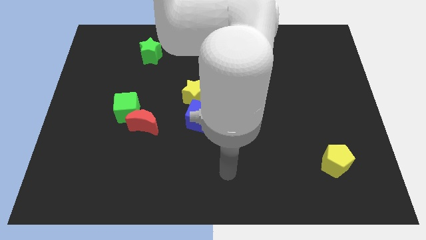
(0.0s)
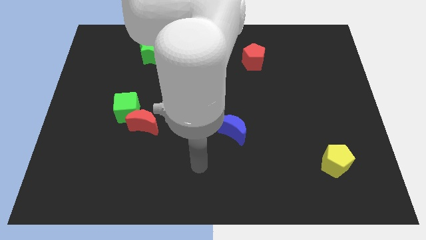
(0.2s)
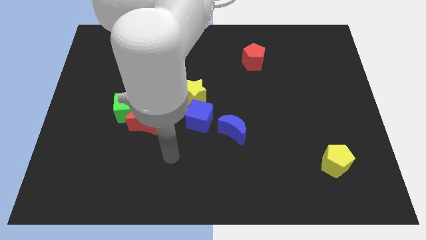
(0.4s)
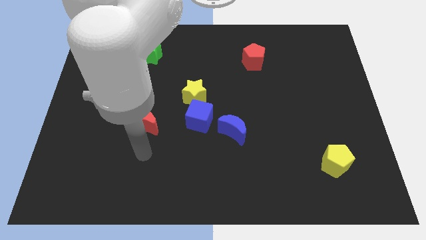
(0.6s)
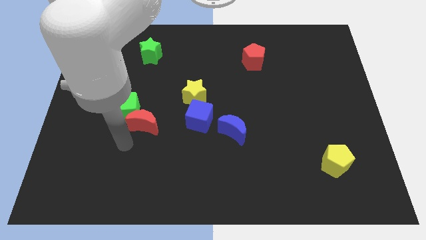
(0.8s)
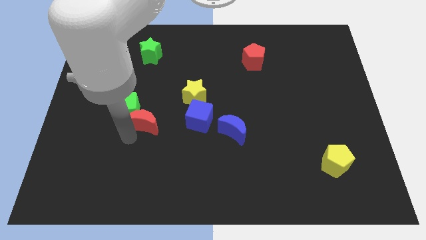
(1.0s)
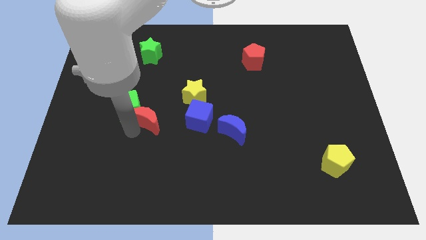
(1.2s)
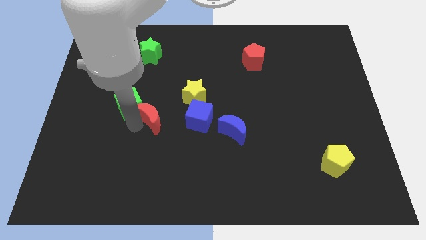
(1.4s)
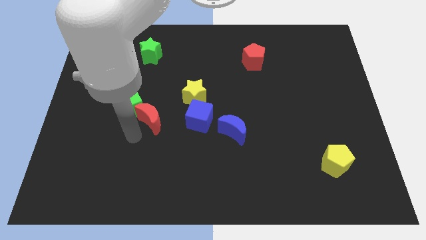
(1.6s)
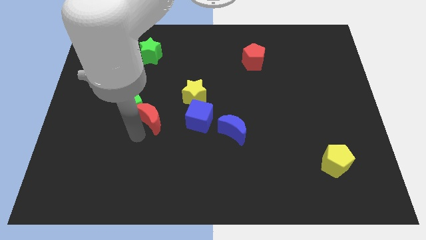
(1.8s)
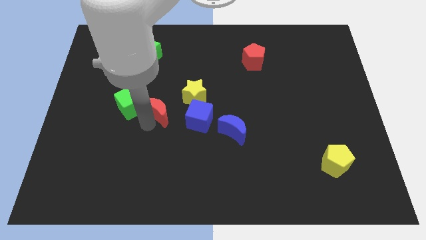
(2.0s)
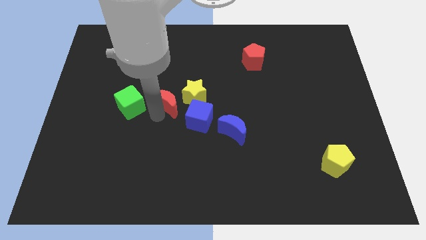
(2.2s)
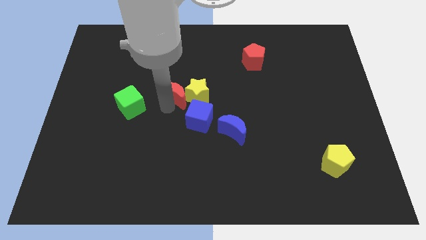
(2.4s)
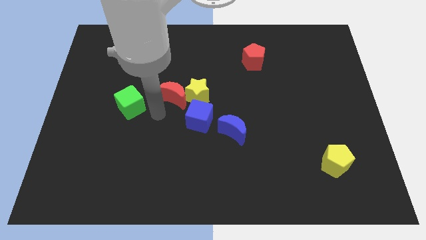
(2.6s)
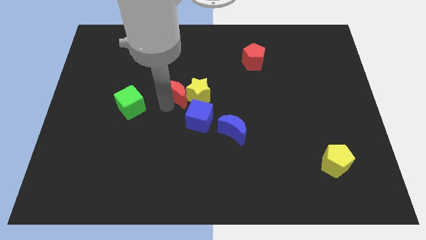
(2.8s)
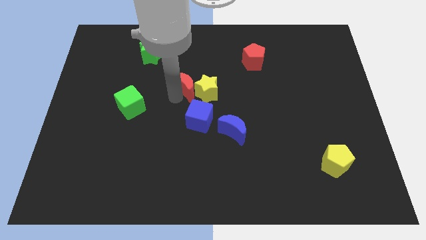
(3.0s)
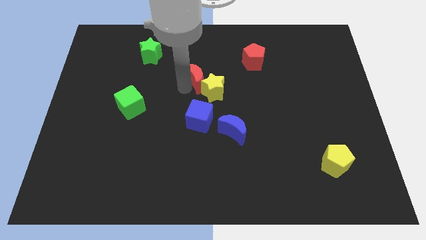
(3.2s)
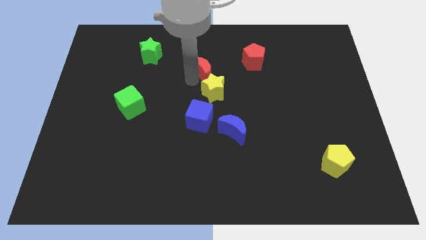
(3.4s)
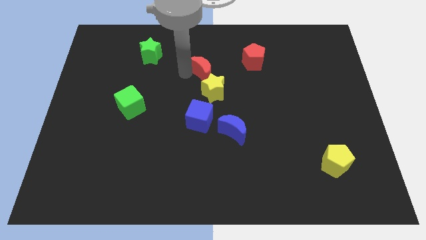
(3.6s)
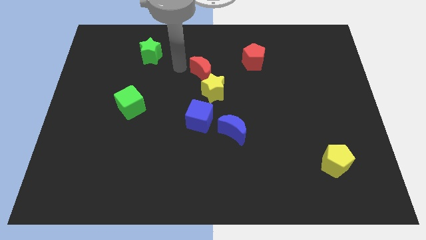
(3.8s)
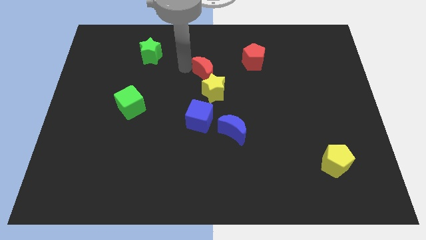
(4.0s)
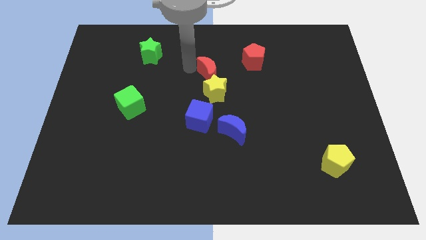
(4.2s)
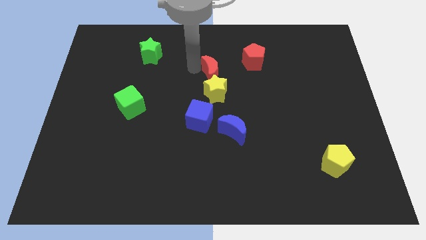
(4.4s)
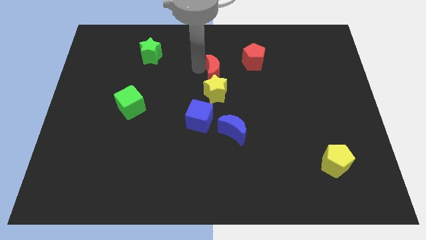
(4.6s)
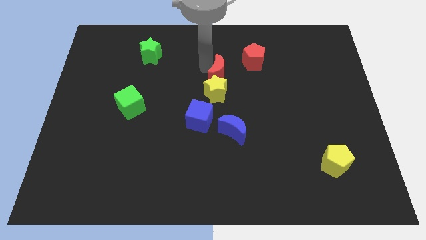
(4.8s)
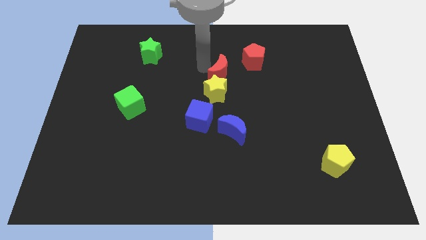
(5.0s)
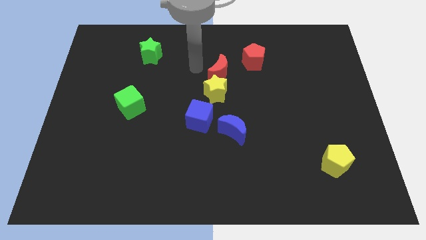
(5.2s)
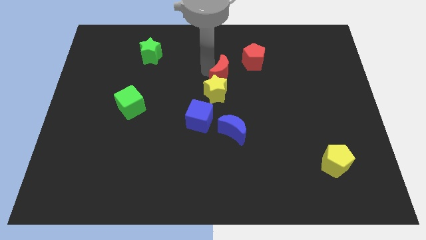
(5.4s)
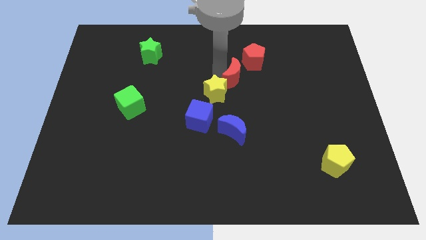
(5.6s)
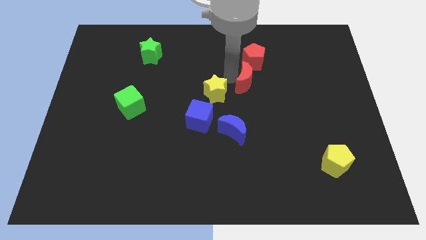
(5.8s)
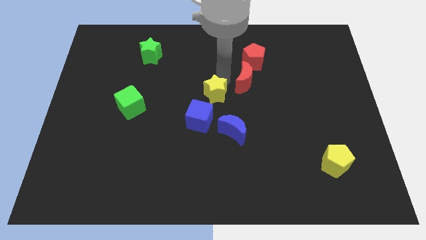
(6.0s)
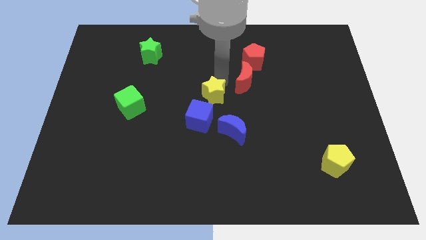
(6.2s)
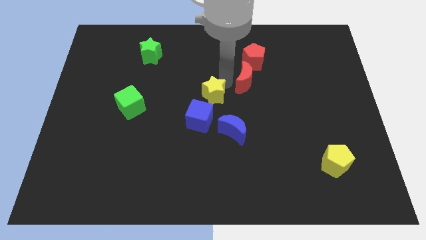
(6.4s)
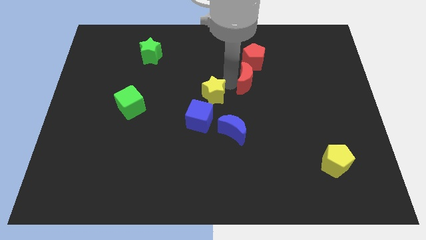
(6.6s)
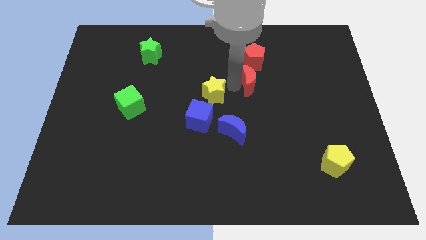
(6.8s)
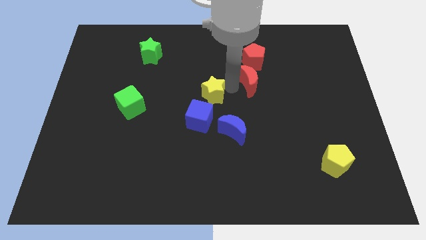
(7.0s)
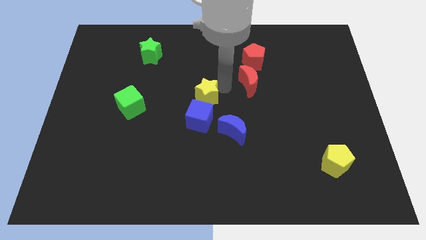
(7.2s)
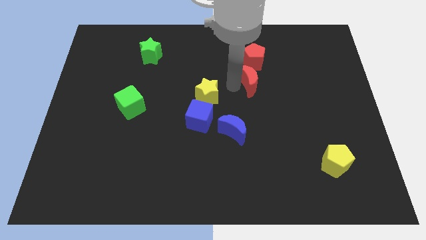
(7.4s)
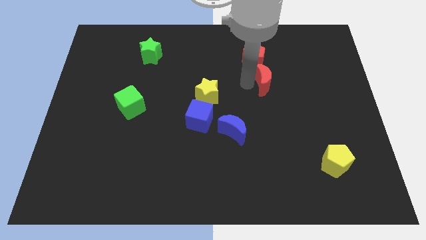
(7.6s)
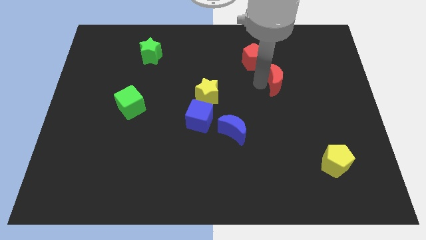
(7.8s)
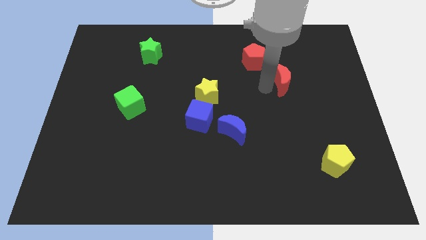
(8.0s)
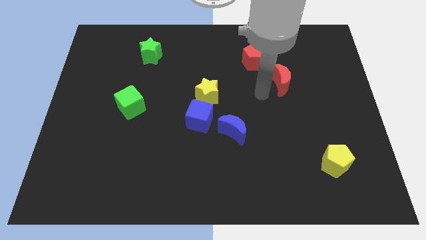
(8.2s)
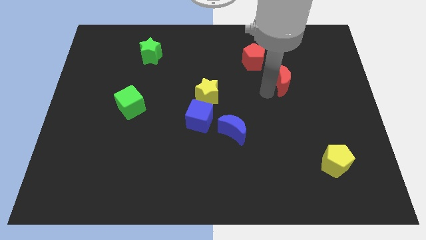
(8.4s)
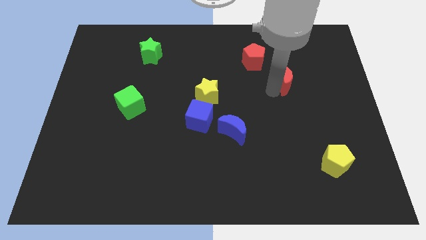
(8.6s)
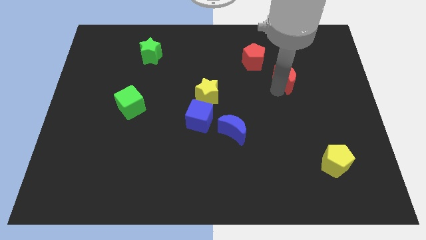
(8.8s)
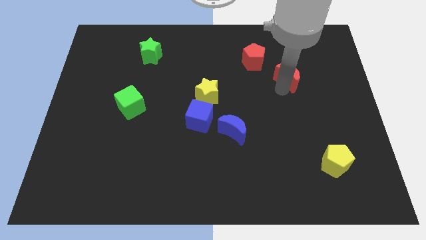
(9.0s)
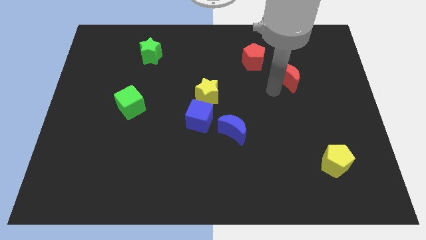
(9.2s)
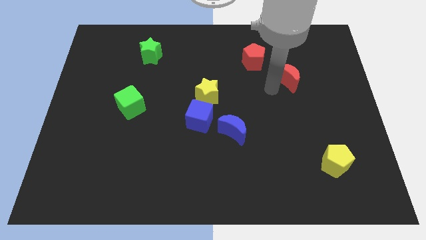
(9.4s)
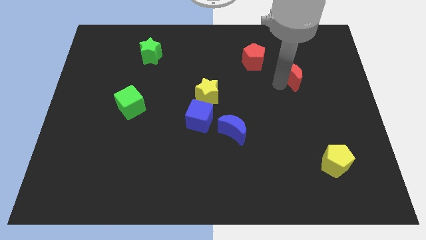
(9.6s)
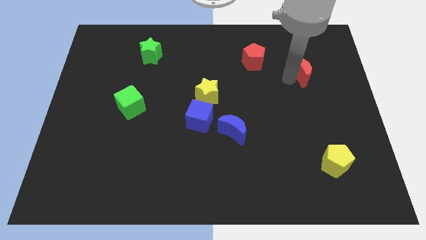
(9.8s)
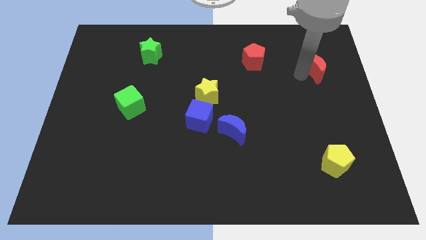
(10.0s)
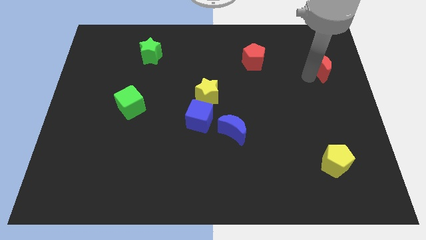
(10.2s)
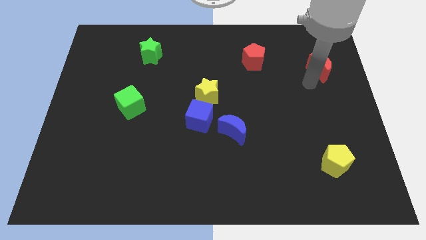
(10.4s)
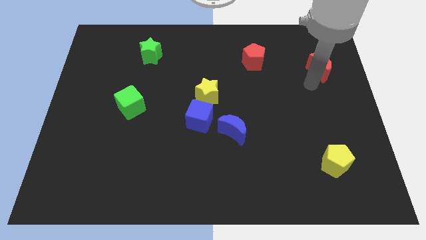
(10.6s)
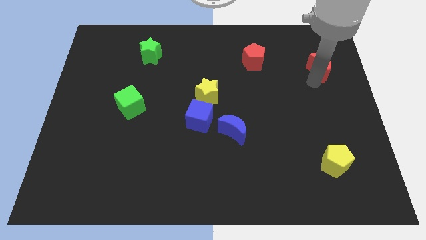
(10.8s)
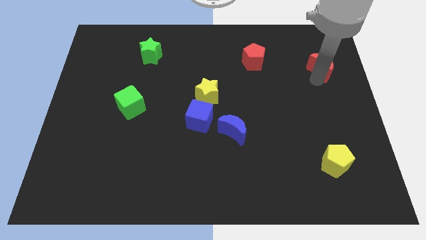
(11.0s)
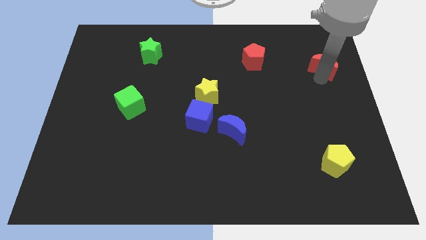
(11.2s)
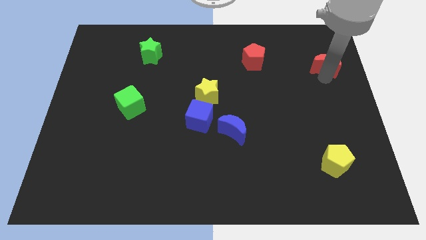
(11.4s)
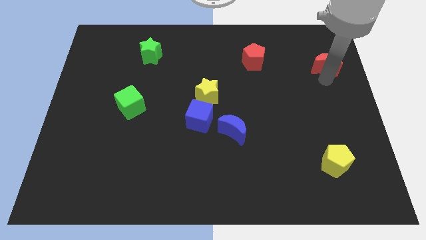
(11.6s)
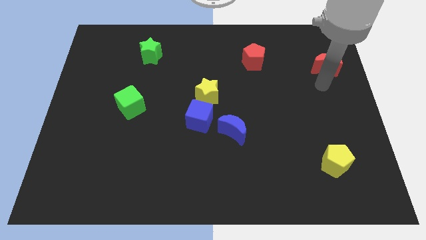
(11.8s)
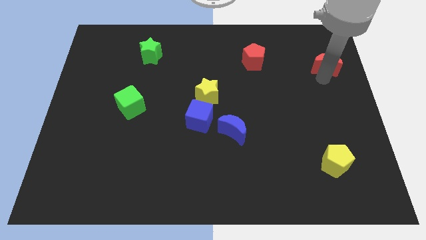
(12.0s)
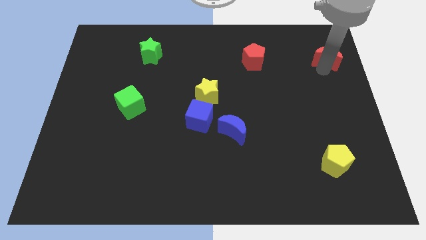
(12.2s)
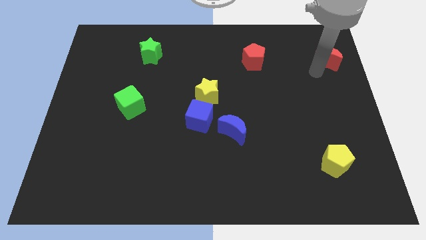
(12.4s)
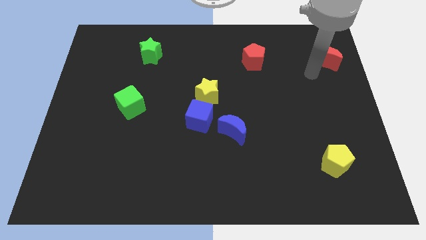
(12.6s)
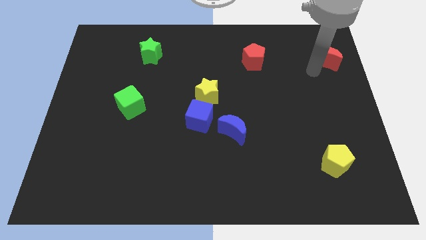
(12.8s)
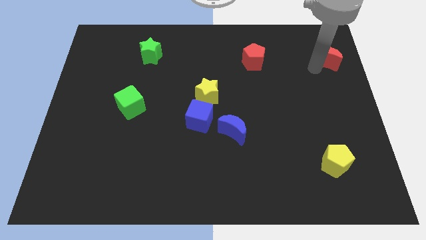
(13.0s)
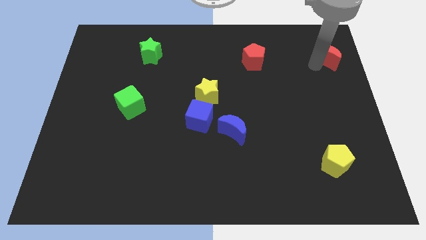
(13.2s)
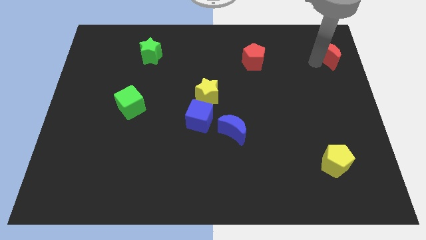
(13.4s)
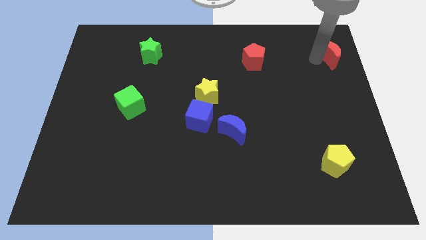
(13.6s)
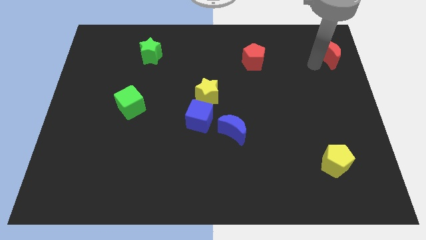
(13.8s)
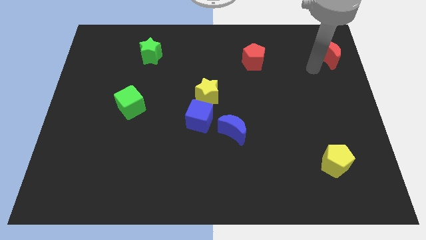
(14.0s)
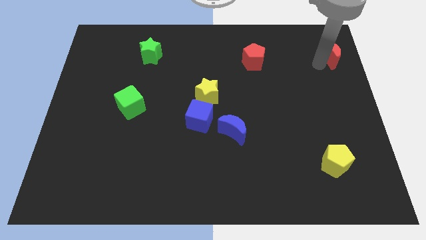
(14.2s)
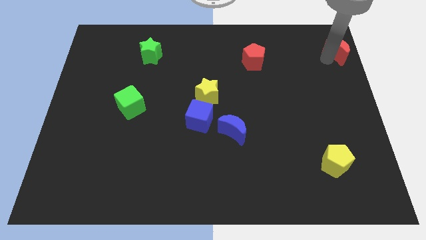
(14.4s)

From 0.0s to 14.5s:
move the red moon to the upper right corner

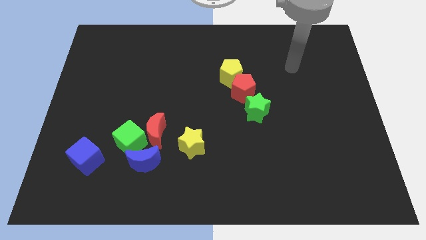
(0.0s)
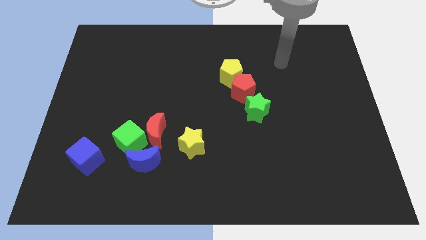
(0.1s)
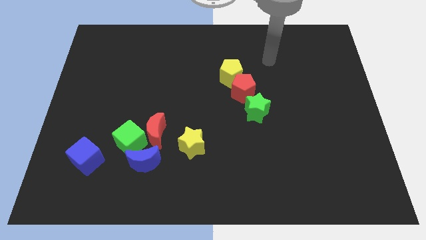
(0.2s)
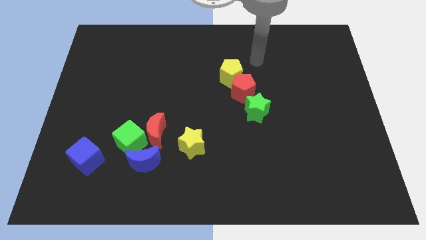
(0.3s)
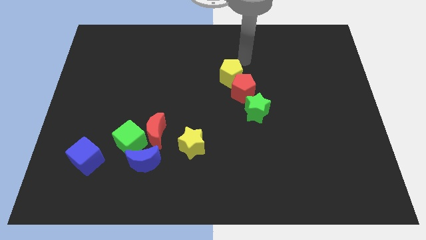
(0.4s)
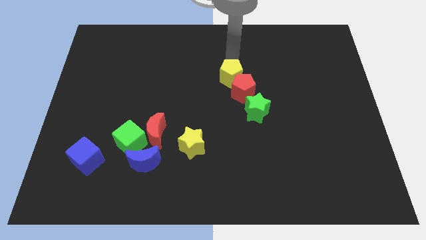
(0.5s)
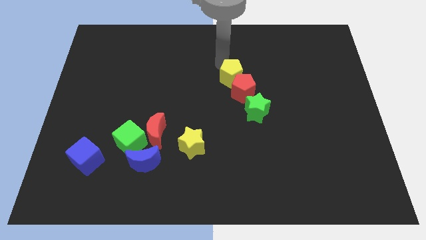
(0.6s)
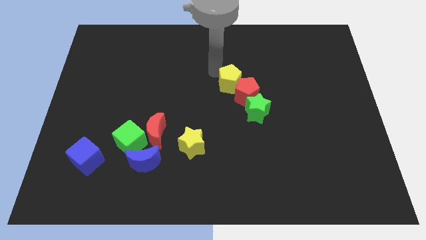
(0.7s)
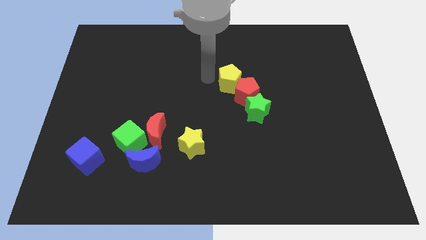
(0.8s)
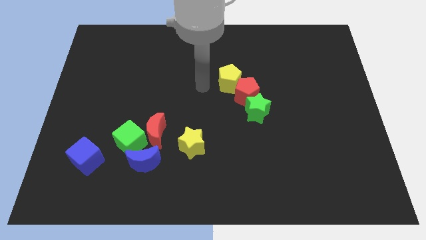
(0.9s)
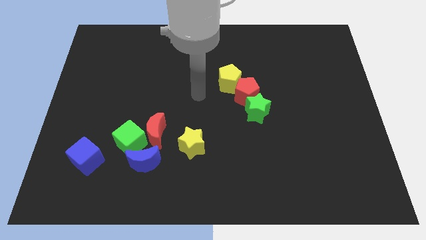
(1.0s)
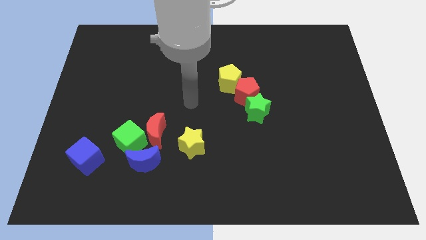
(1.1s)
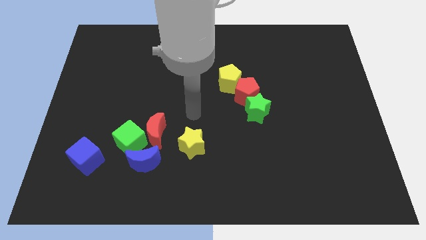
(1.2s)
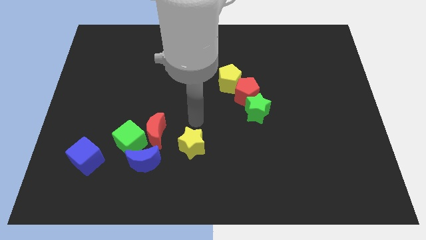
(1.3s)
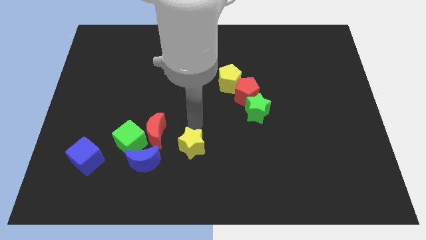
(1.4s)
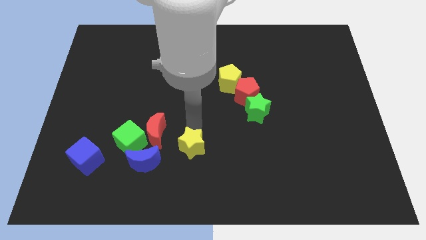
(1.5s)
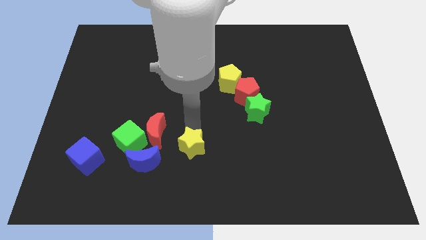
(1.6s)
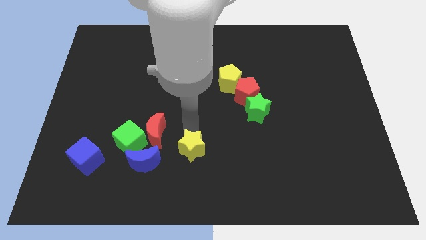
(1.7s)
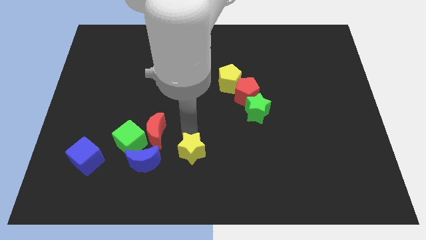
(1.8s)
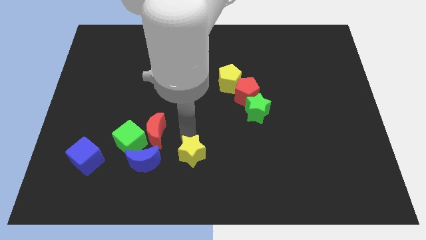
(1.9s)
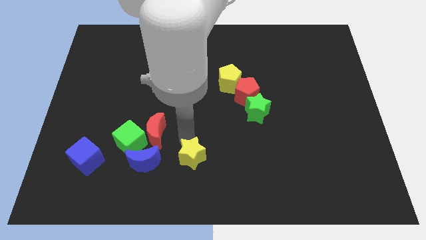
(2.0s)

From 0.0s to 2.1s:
move the yellow star to the bottom side
